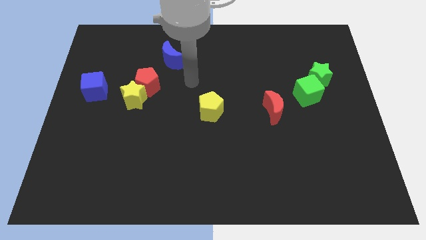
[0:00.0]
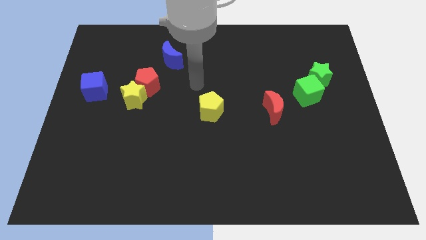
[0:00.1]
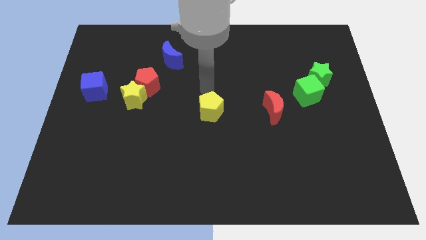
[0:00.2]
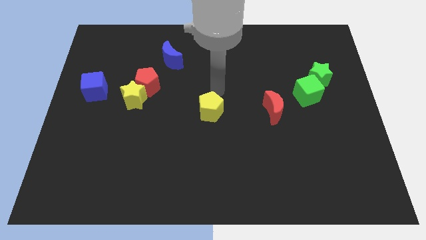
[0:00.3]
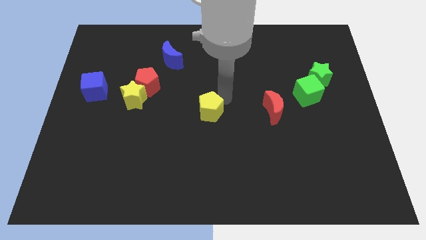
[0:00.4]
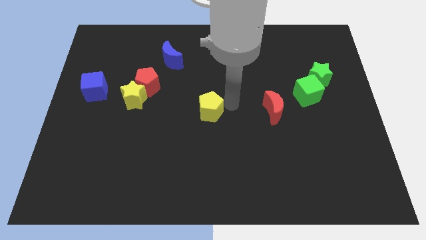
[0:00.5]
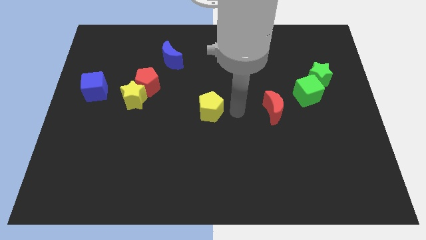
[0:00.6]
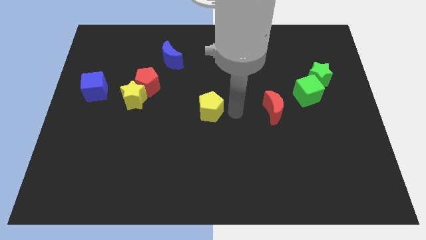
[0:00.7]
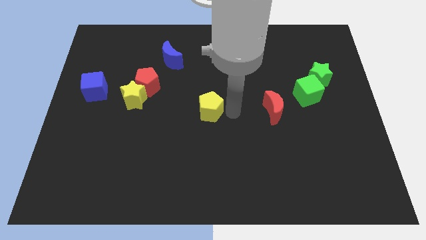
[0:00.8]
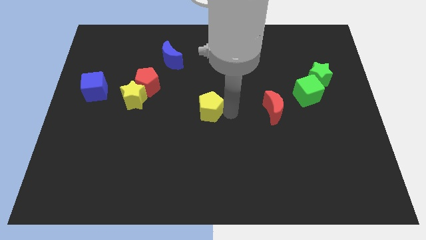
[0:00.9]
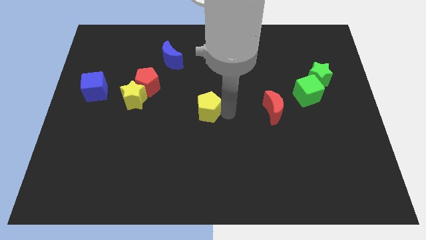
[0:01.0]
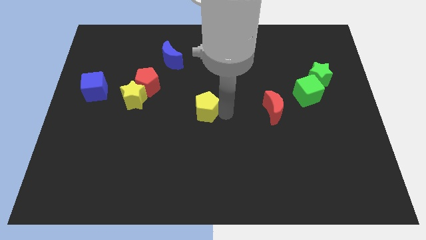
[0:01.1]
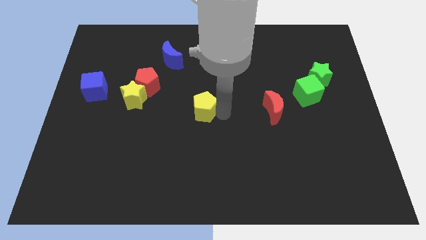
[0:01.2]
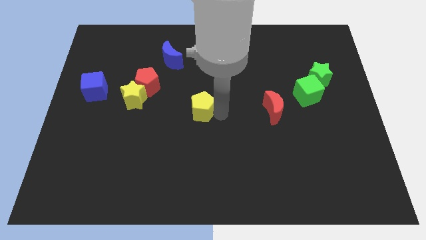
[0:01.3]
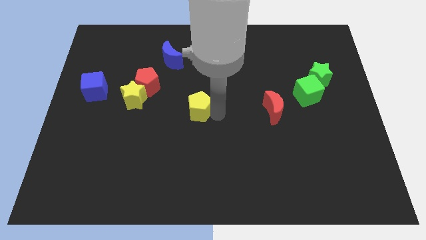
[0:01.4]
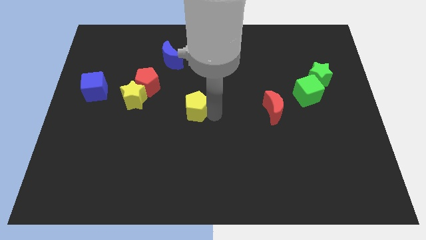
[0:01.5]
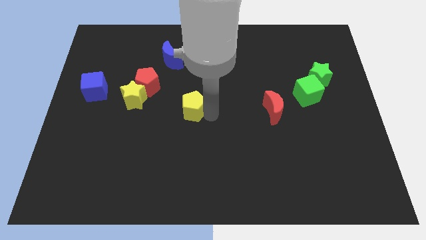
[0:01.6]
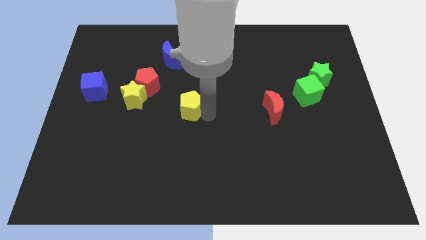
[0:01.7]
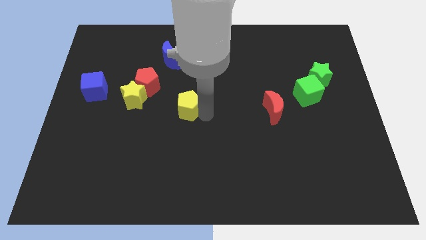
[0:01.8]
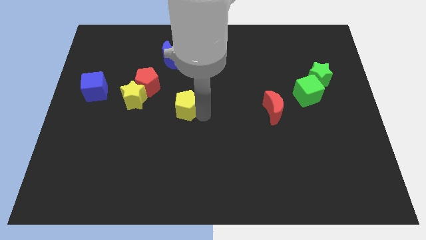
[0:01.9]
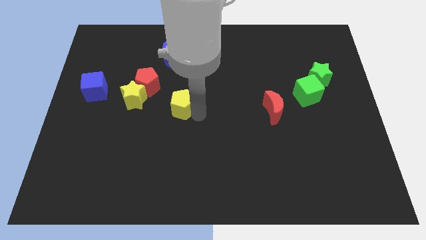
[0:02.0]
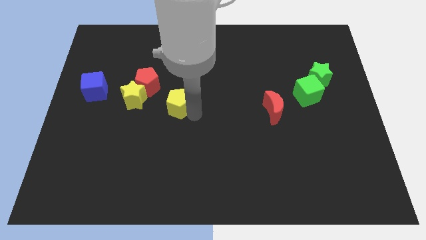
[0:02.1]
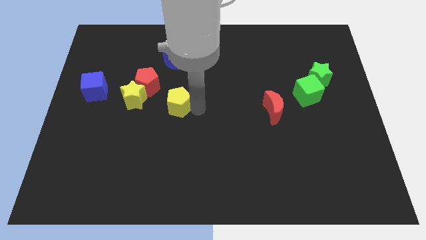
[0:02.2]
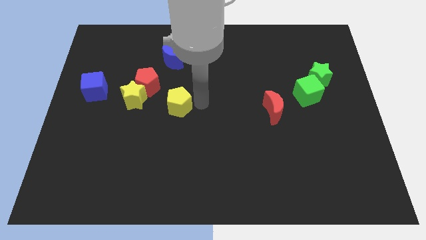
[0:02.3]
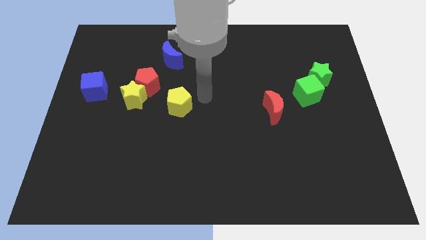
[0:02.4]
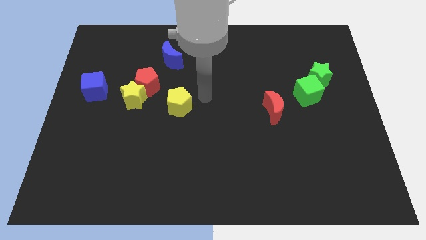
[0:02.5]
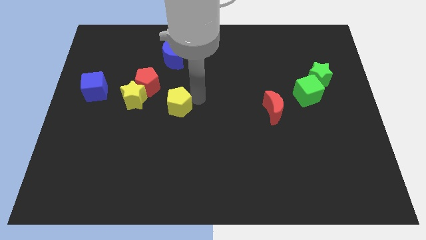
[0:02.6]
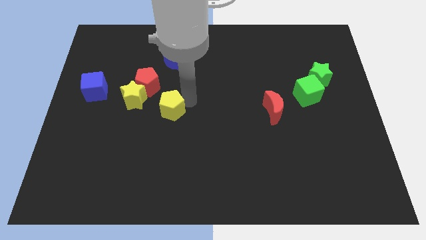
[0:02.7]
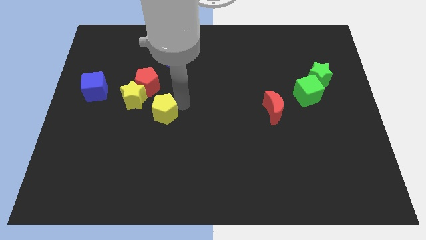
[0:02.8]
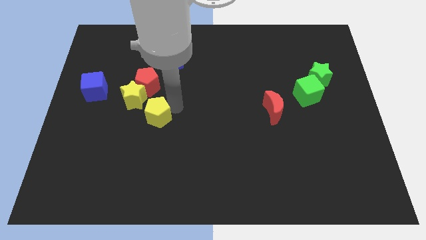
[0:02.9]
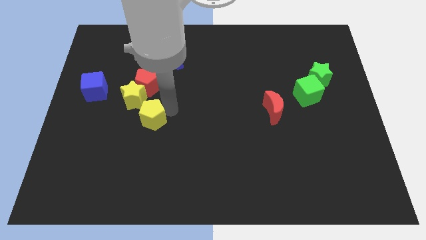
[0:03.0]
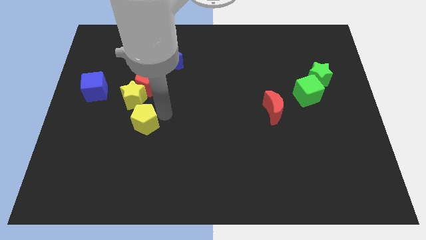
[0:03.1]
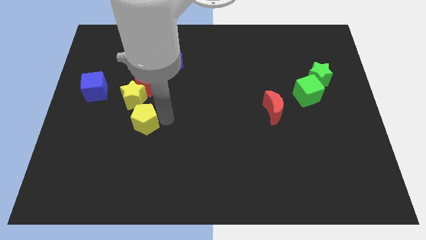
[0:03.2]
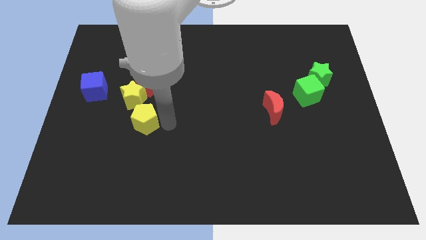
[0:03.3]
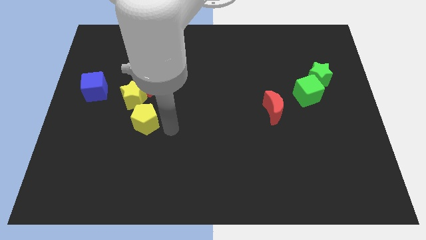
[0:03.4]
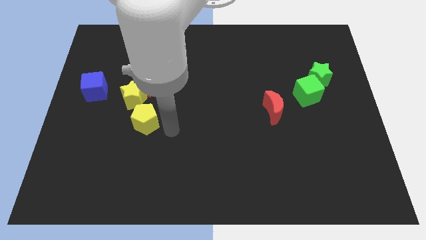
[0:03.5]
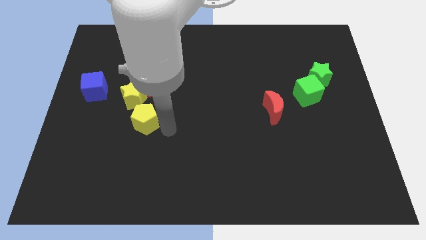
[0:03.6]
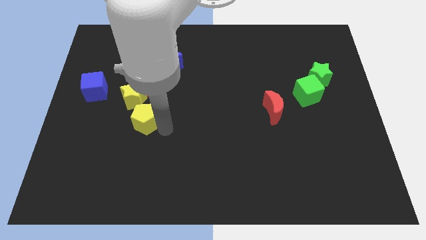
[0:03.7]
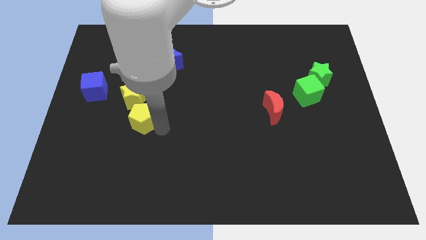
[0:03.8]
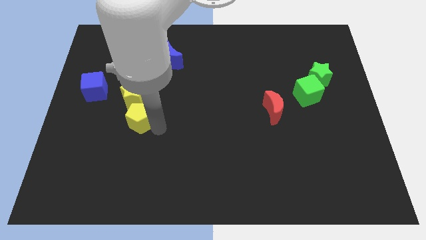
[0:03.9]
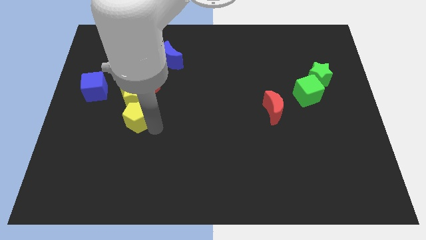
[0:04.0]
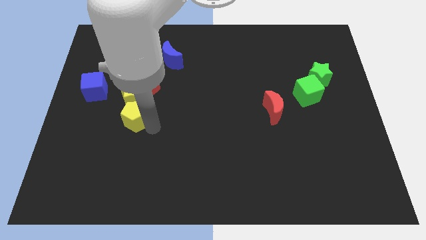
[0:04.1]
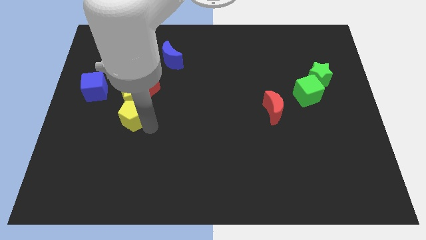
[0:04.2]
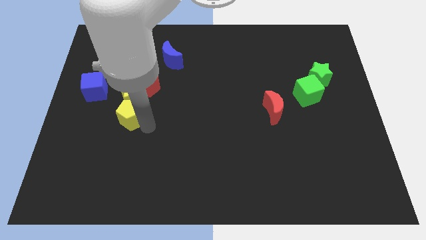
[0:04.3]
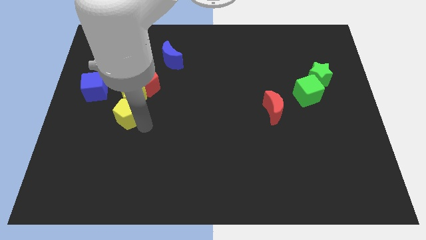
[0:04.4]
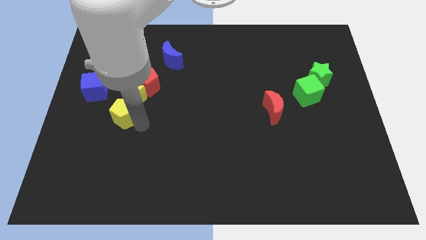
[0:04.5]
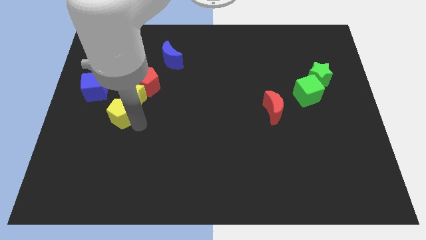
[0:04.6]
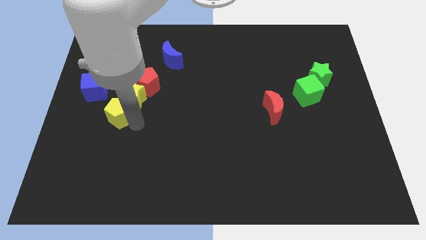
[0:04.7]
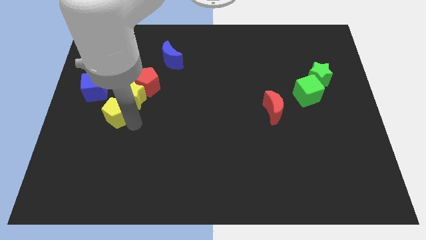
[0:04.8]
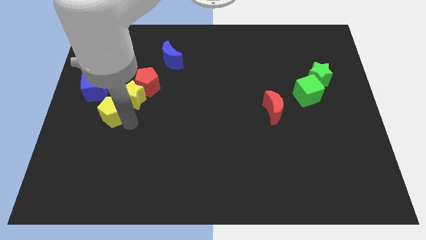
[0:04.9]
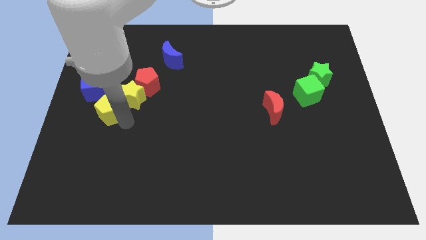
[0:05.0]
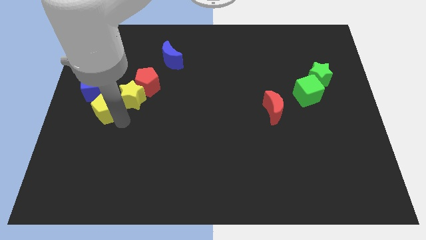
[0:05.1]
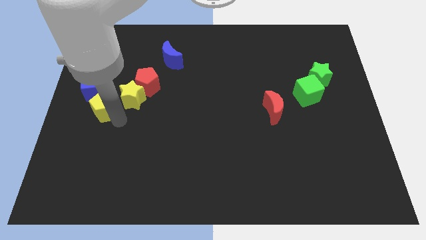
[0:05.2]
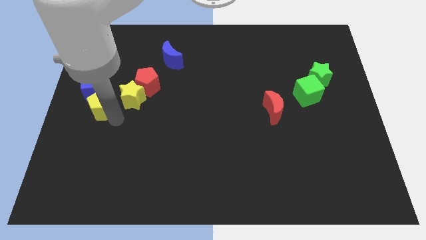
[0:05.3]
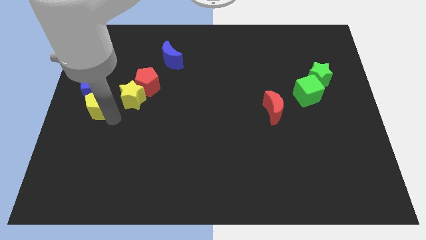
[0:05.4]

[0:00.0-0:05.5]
slide the yellow pentagon close to the blue cube

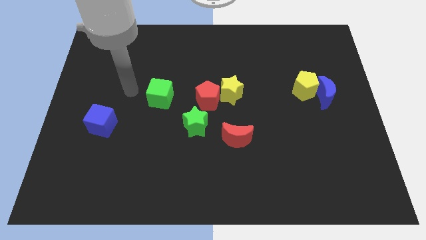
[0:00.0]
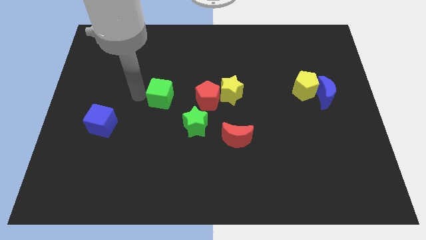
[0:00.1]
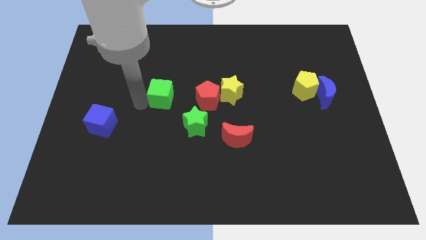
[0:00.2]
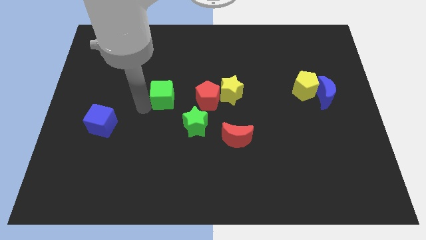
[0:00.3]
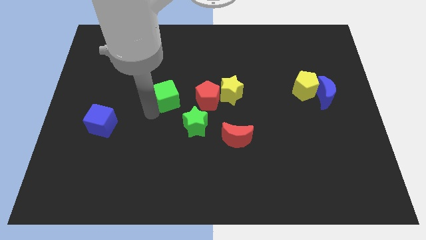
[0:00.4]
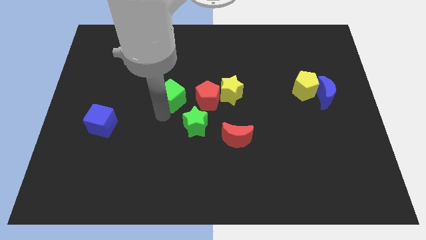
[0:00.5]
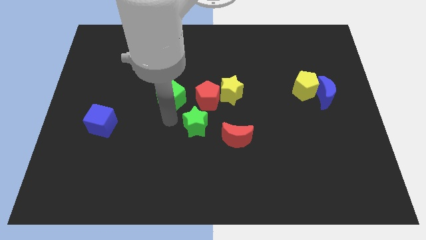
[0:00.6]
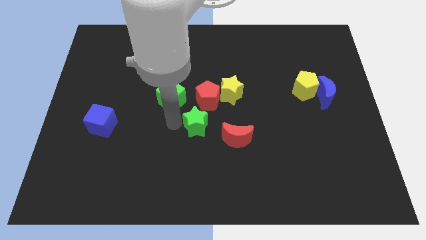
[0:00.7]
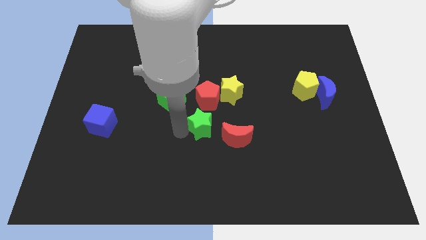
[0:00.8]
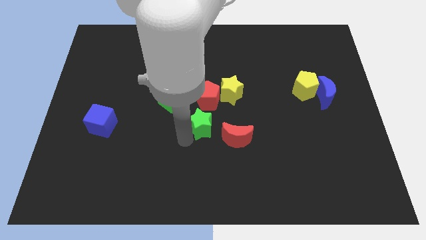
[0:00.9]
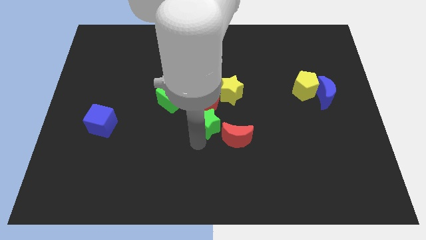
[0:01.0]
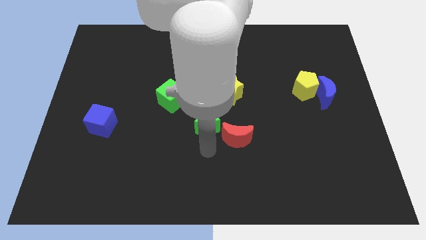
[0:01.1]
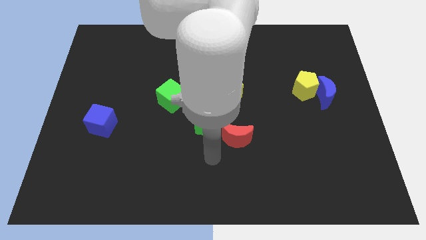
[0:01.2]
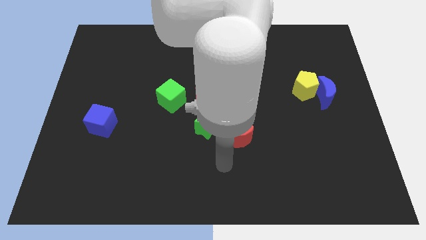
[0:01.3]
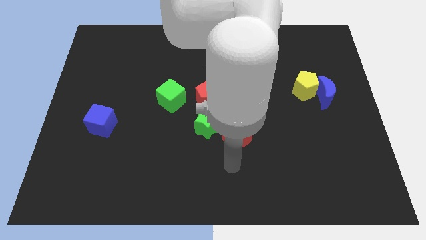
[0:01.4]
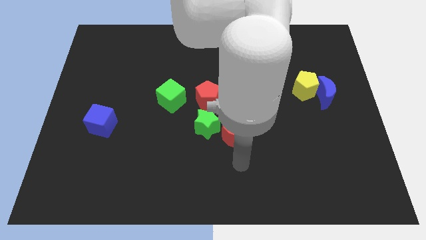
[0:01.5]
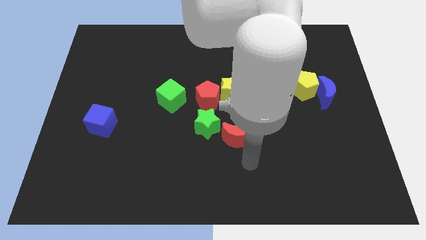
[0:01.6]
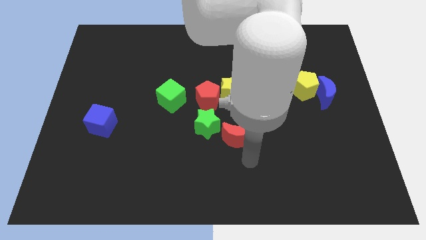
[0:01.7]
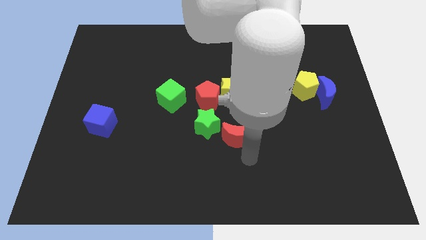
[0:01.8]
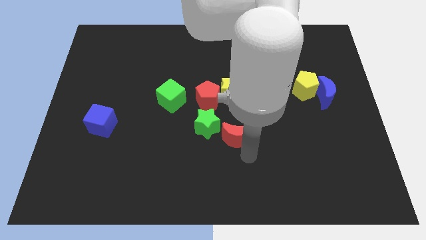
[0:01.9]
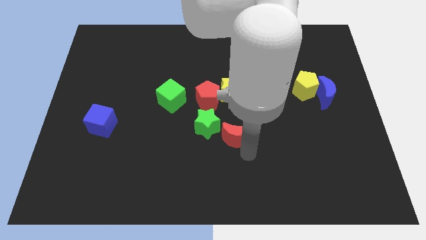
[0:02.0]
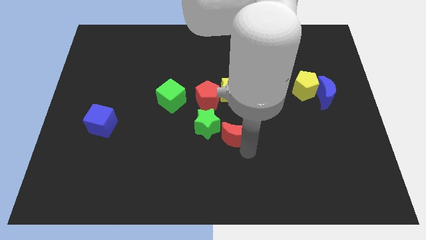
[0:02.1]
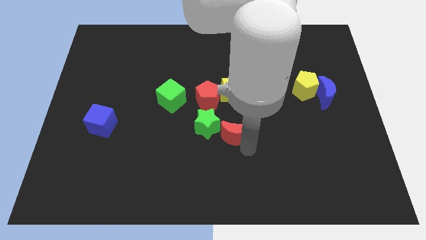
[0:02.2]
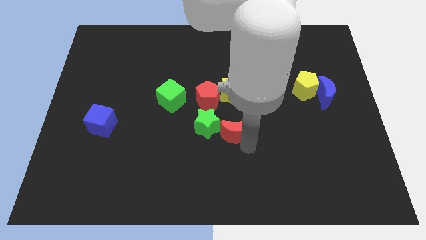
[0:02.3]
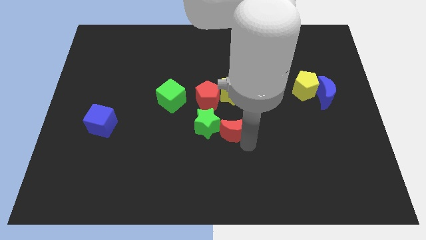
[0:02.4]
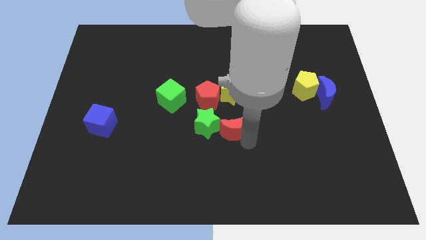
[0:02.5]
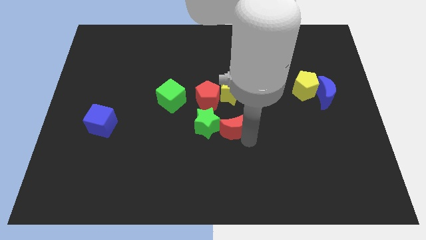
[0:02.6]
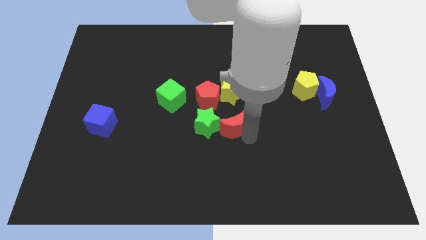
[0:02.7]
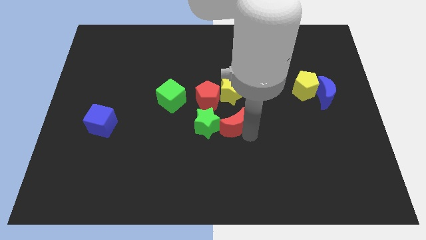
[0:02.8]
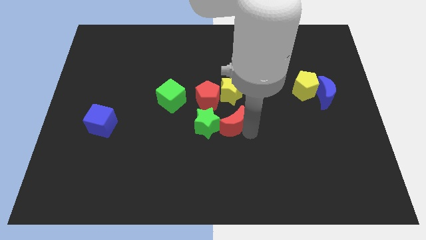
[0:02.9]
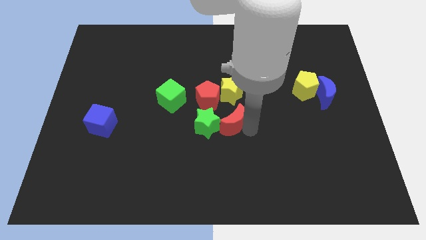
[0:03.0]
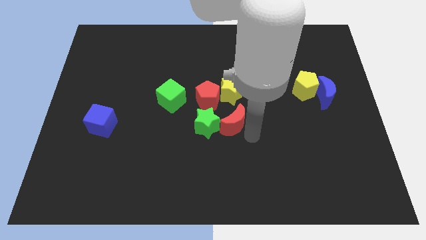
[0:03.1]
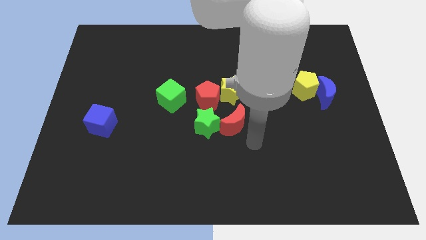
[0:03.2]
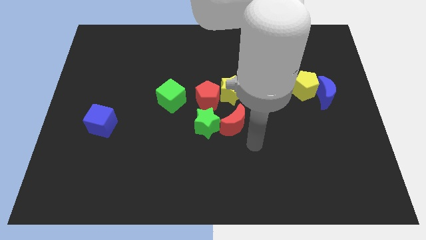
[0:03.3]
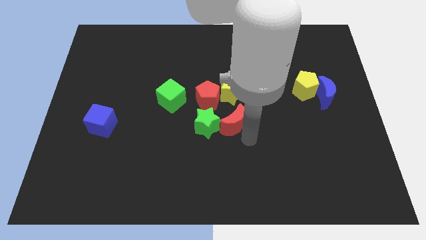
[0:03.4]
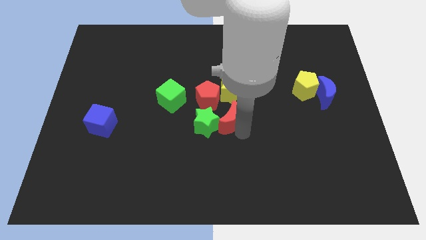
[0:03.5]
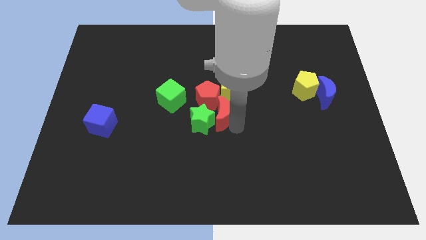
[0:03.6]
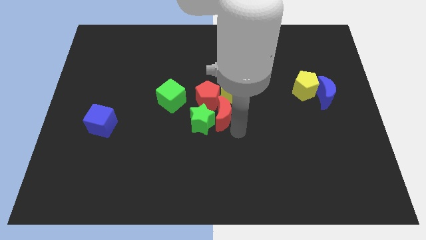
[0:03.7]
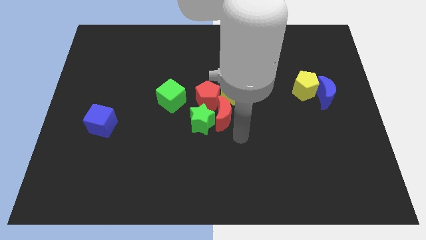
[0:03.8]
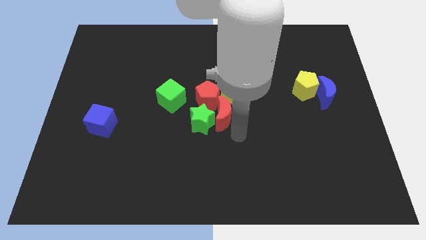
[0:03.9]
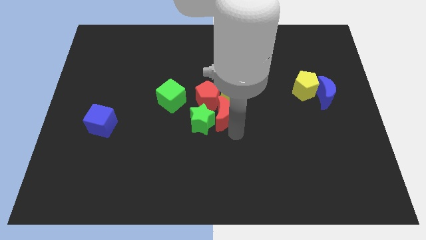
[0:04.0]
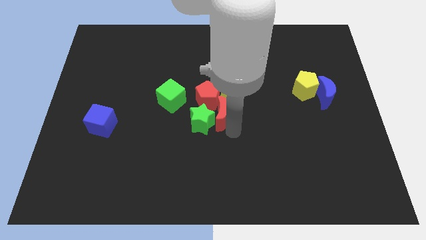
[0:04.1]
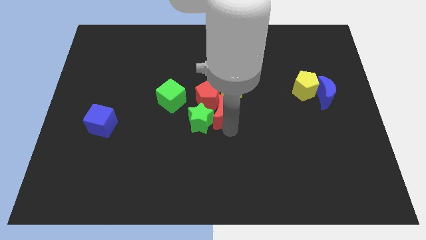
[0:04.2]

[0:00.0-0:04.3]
put the red moon towards the red pentagon
